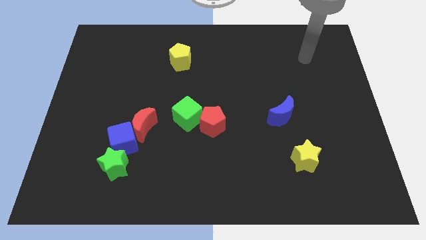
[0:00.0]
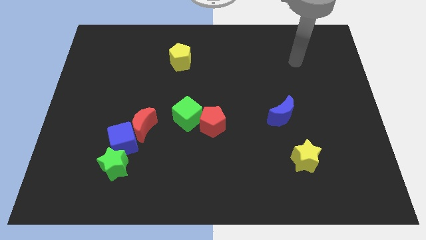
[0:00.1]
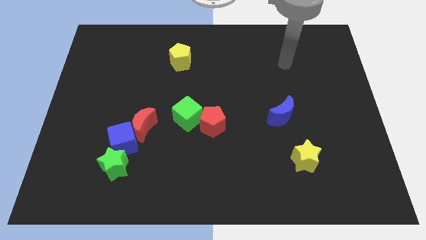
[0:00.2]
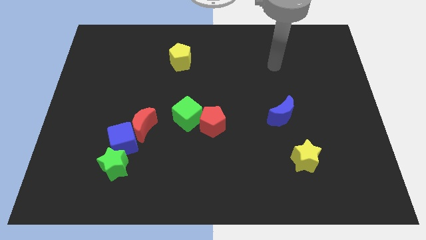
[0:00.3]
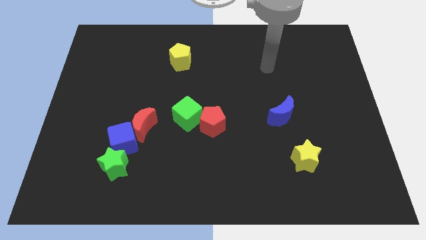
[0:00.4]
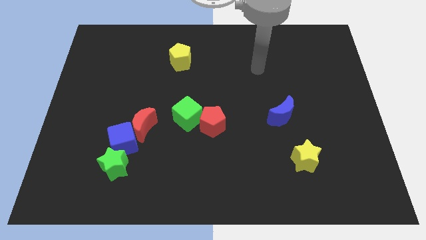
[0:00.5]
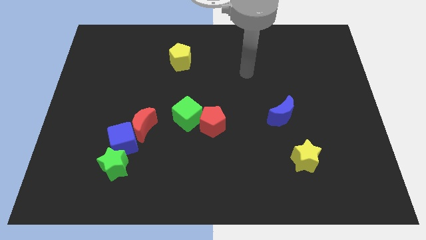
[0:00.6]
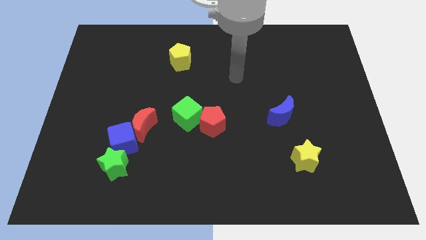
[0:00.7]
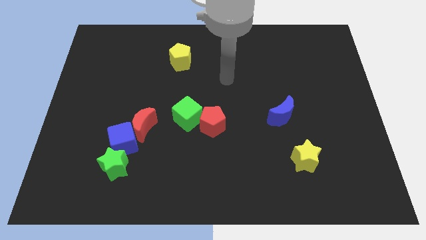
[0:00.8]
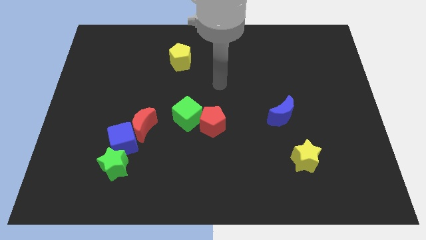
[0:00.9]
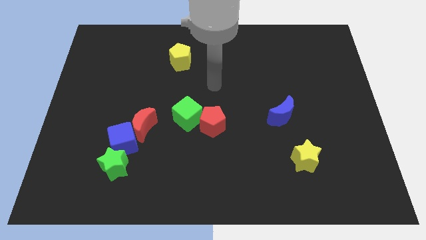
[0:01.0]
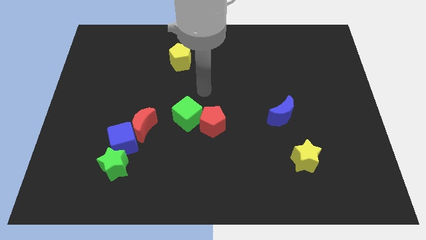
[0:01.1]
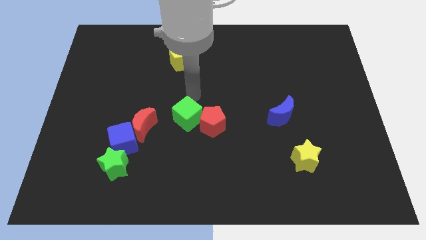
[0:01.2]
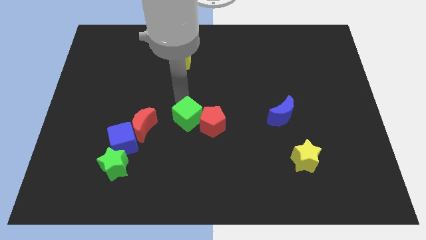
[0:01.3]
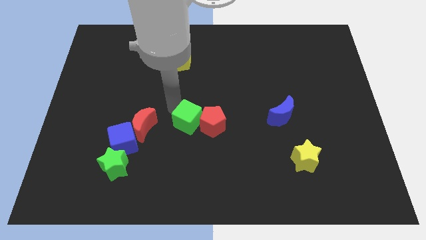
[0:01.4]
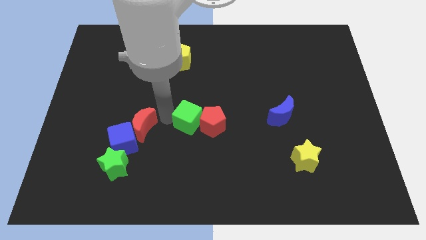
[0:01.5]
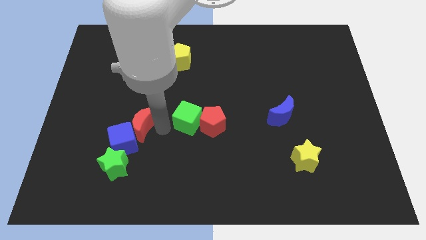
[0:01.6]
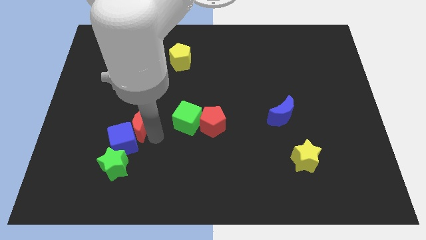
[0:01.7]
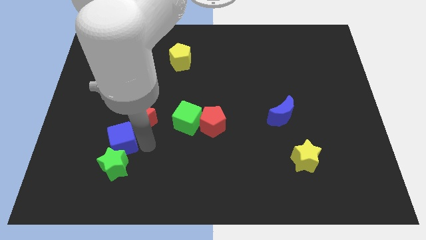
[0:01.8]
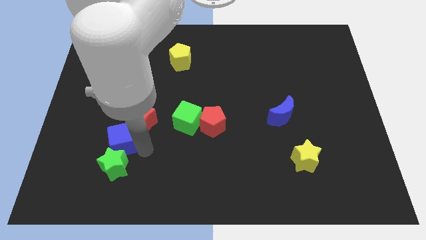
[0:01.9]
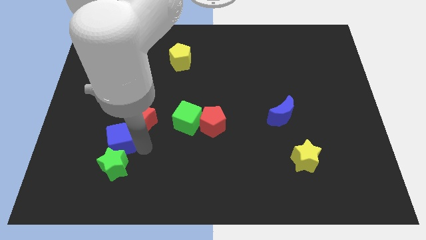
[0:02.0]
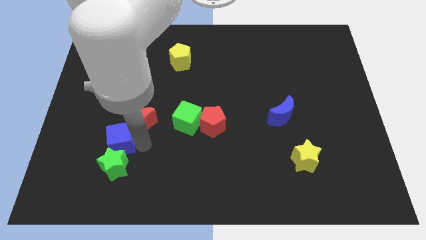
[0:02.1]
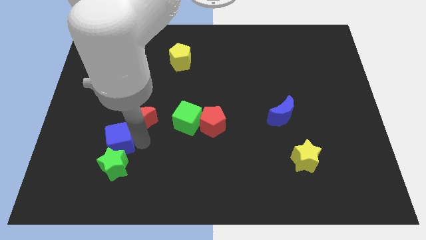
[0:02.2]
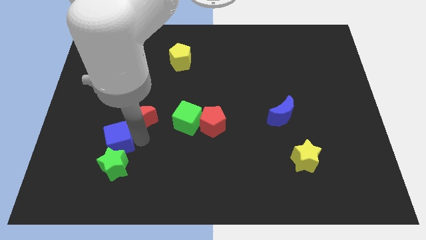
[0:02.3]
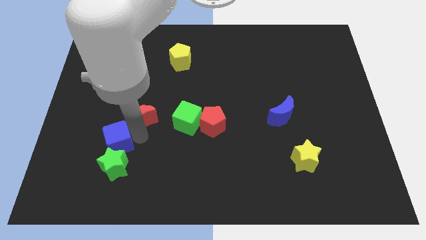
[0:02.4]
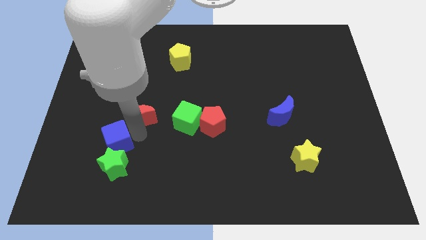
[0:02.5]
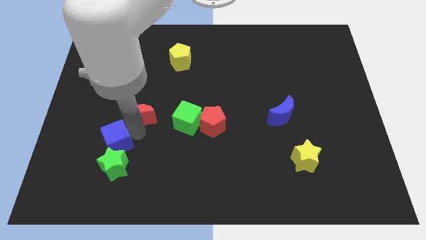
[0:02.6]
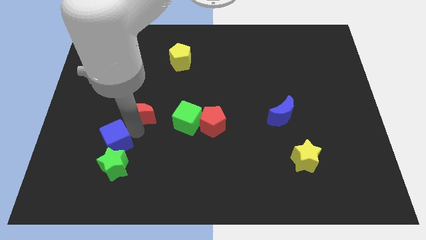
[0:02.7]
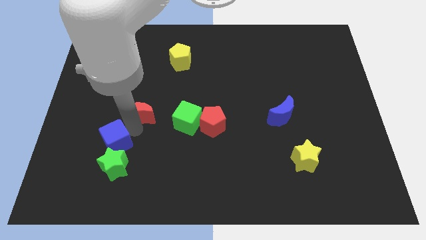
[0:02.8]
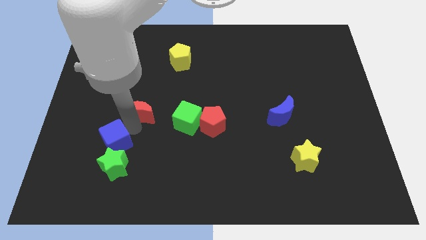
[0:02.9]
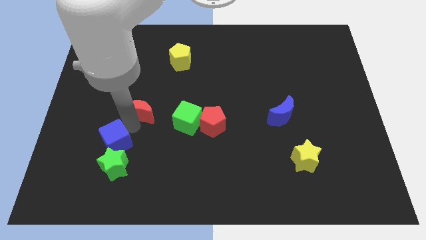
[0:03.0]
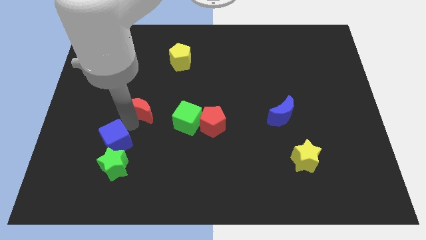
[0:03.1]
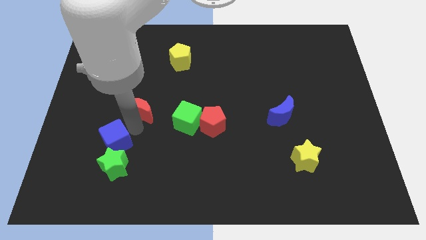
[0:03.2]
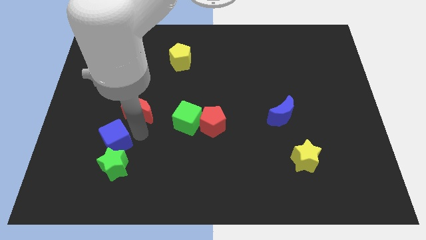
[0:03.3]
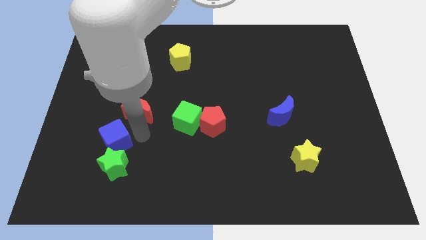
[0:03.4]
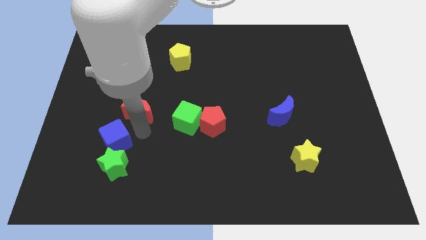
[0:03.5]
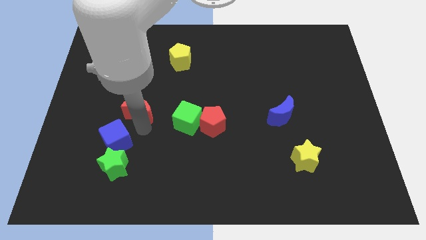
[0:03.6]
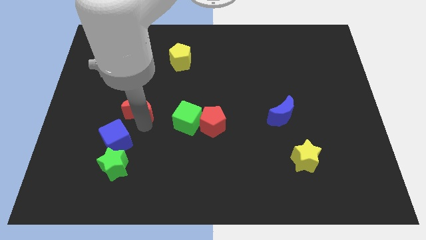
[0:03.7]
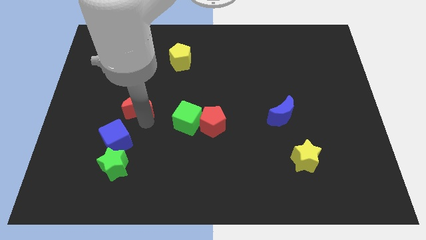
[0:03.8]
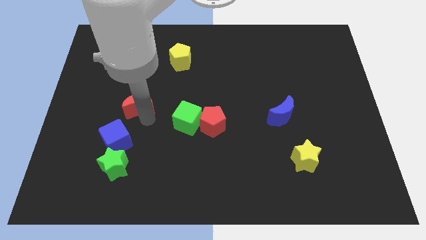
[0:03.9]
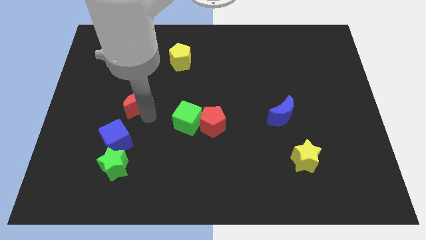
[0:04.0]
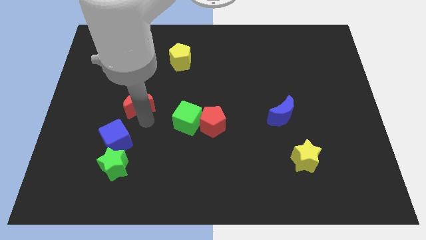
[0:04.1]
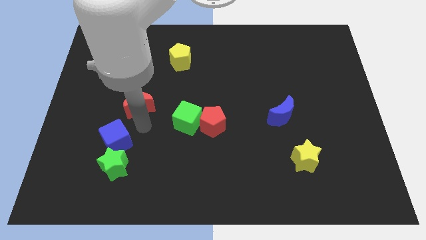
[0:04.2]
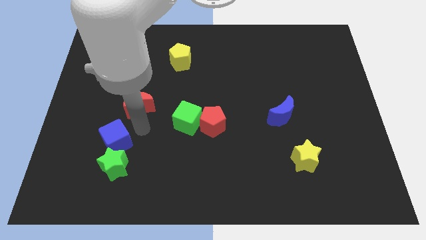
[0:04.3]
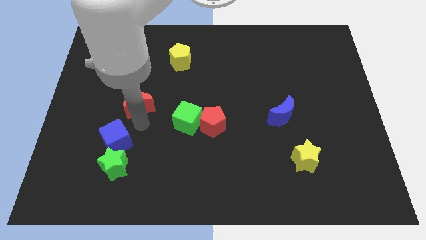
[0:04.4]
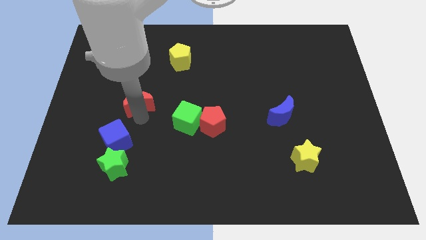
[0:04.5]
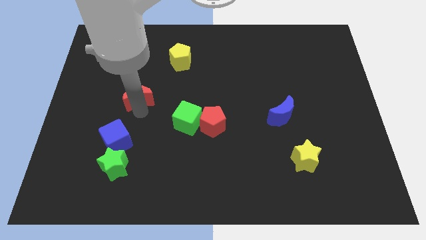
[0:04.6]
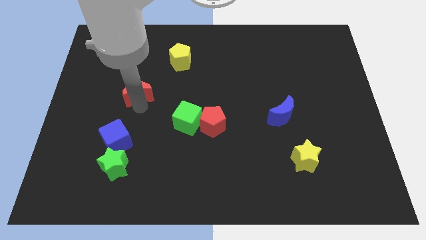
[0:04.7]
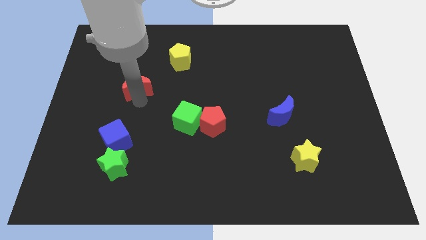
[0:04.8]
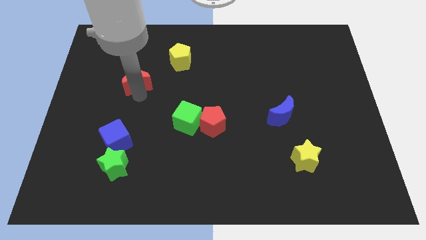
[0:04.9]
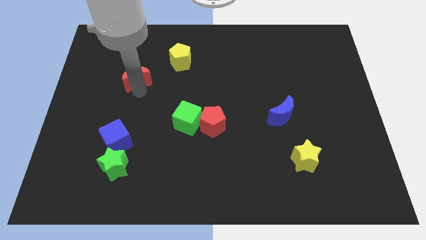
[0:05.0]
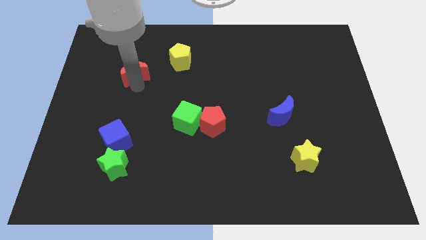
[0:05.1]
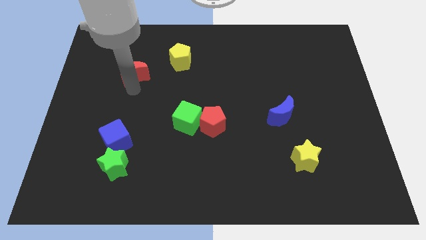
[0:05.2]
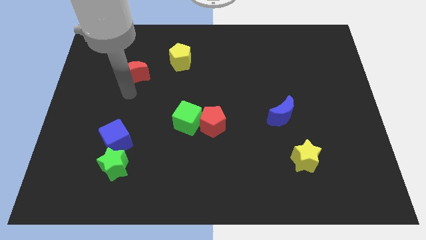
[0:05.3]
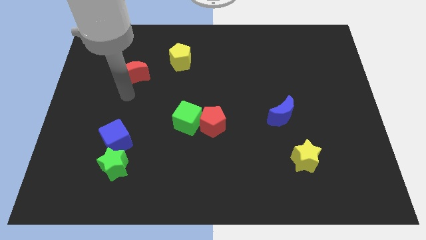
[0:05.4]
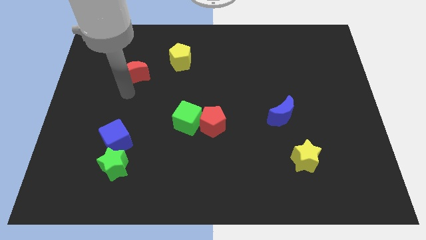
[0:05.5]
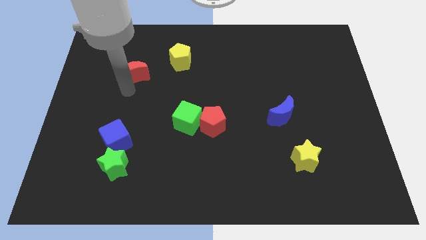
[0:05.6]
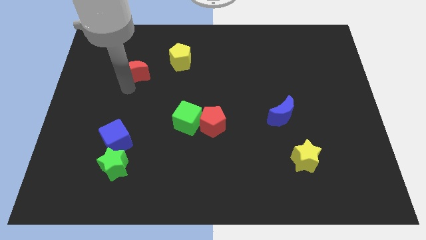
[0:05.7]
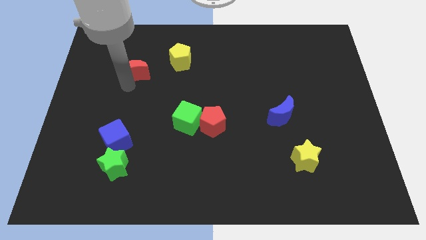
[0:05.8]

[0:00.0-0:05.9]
push the red moon just left of the yellow pentagon

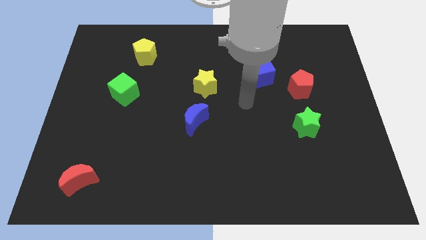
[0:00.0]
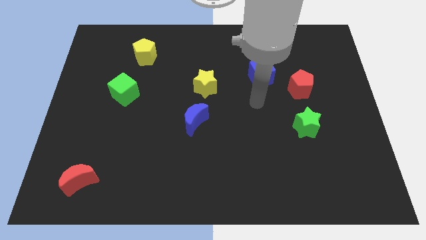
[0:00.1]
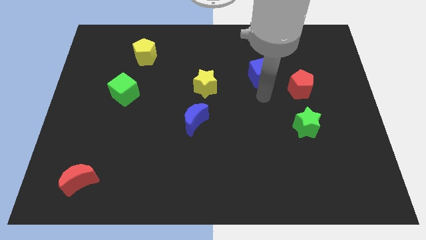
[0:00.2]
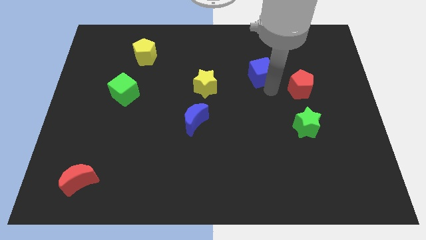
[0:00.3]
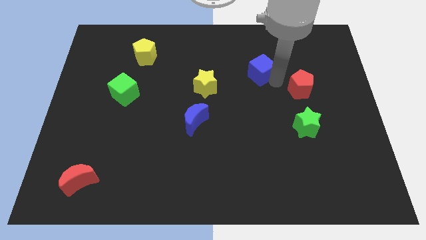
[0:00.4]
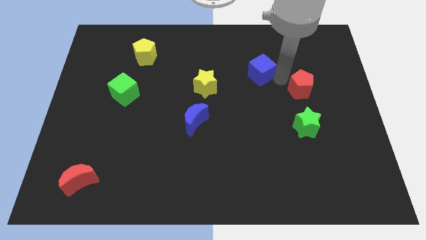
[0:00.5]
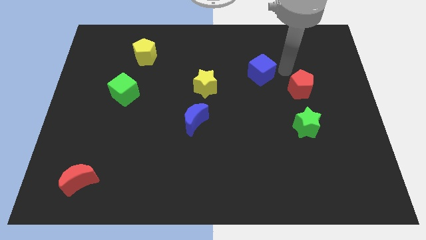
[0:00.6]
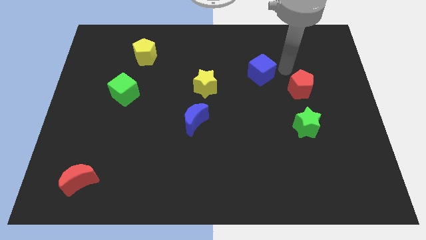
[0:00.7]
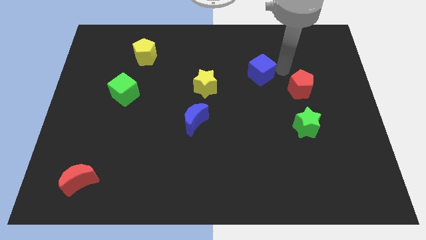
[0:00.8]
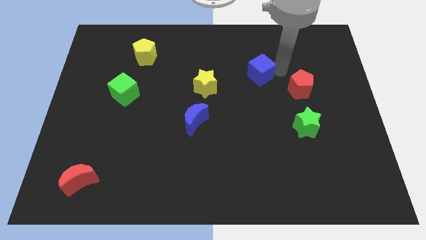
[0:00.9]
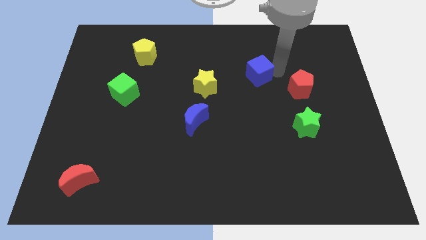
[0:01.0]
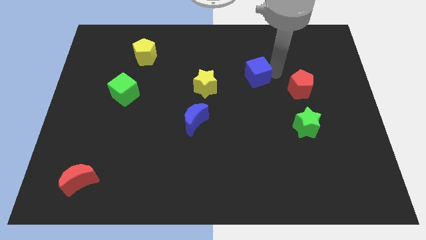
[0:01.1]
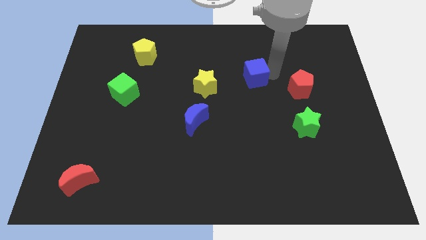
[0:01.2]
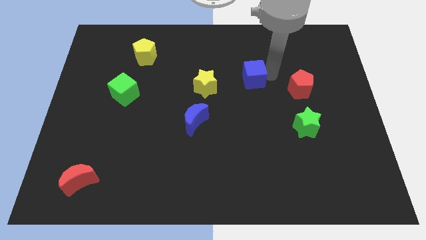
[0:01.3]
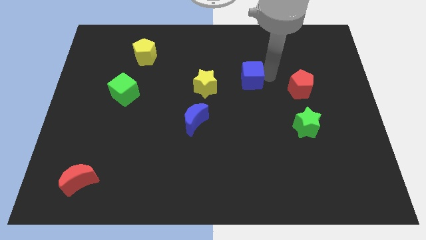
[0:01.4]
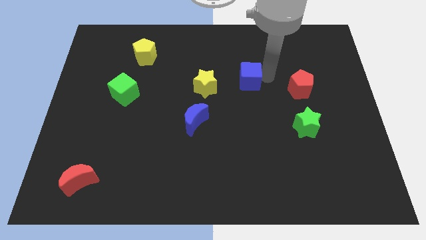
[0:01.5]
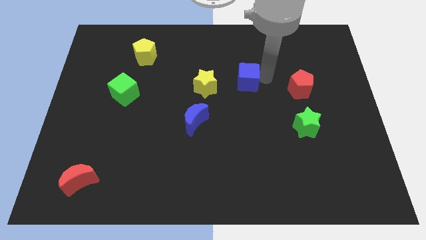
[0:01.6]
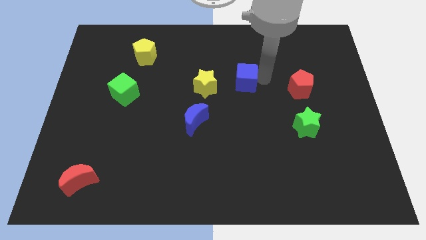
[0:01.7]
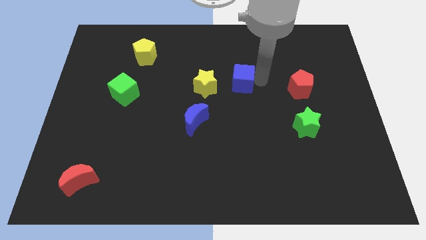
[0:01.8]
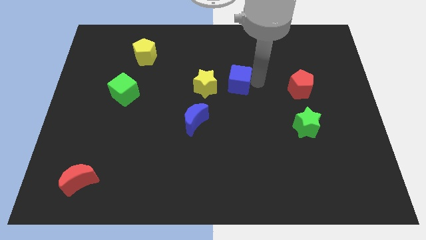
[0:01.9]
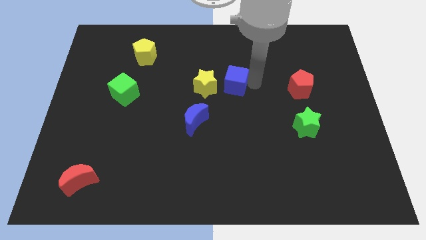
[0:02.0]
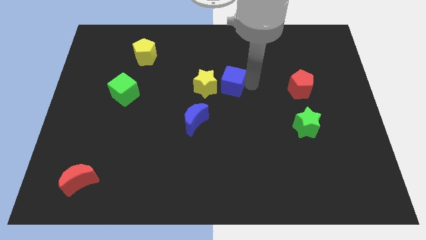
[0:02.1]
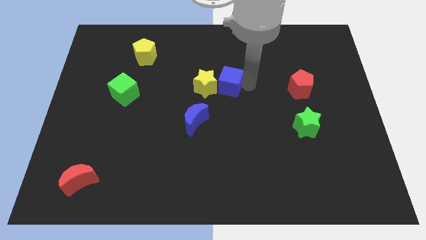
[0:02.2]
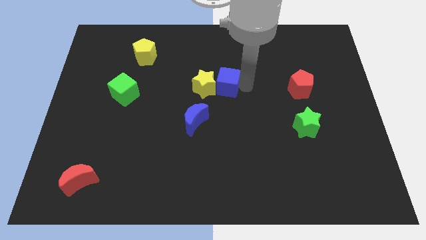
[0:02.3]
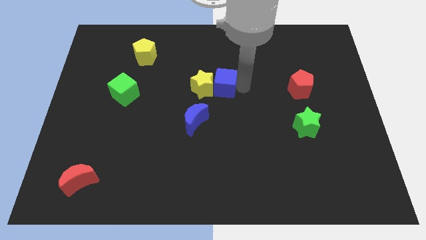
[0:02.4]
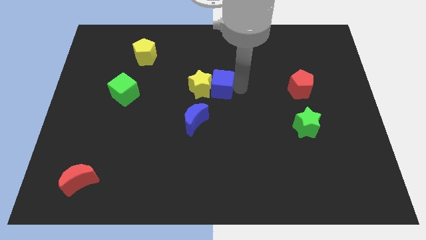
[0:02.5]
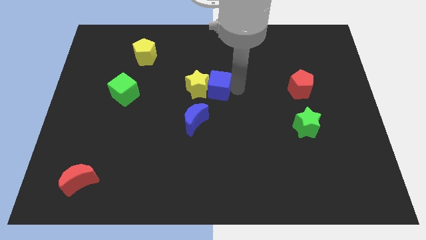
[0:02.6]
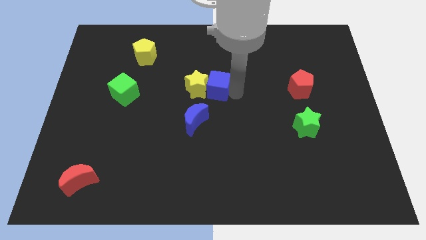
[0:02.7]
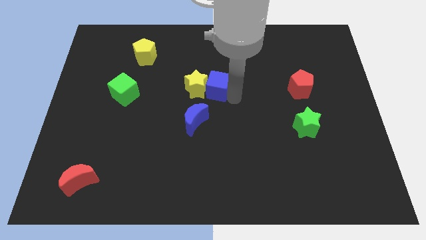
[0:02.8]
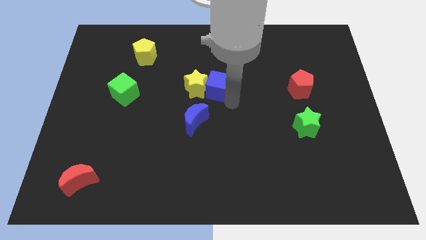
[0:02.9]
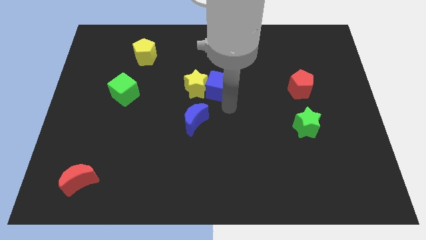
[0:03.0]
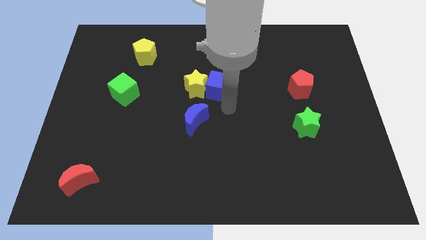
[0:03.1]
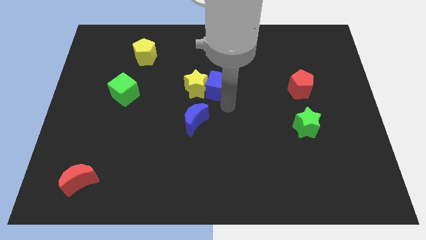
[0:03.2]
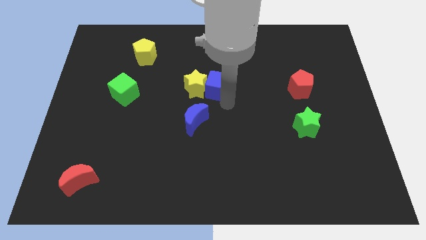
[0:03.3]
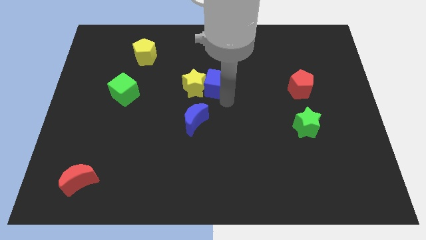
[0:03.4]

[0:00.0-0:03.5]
move the blue cube to the top of the blue moon
